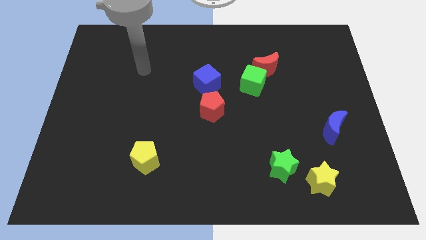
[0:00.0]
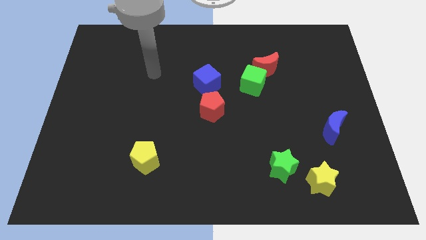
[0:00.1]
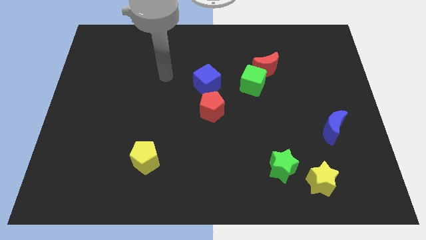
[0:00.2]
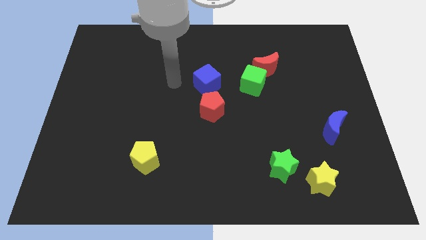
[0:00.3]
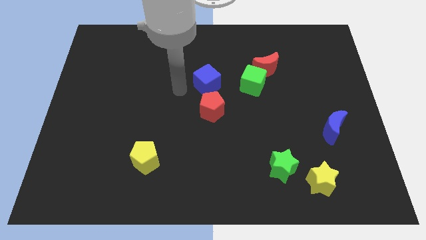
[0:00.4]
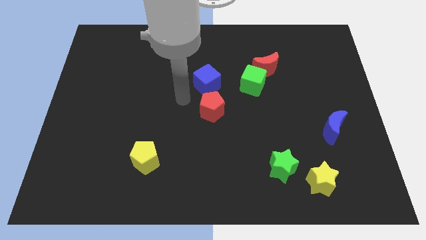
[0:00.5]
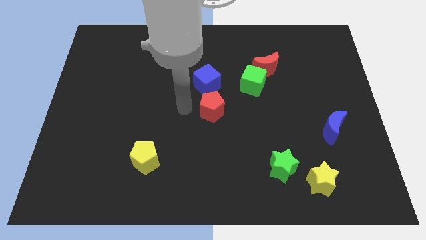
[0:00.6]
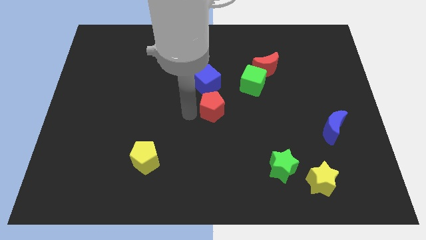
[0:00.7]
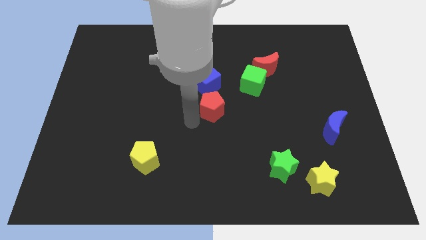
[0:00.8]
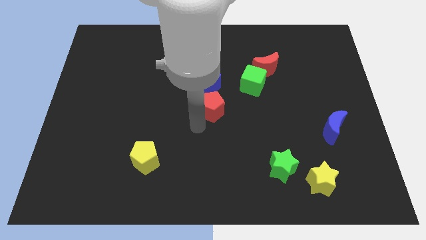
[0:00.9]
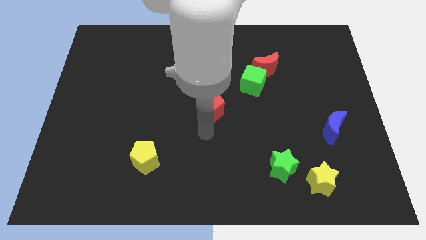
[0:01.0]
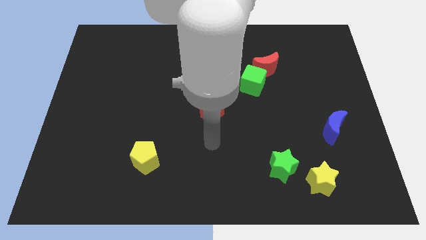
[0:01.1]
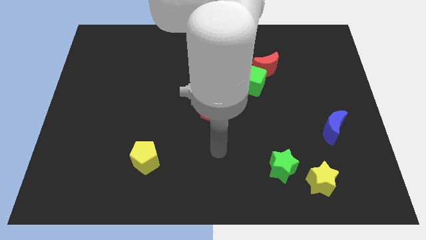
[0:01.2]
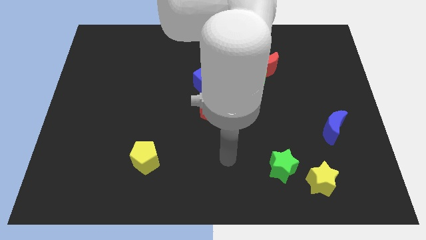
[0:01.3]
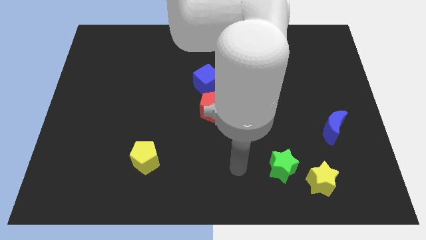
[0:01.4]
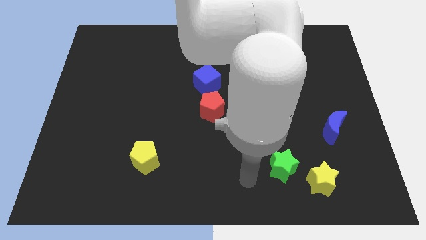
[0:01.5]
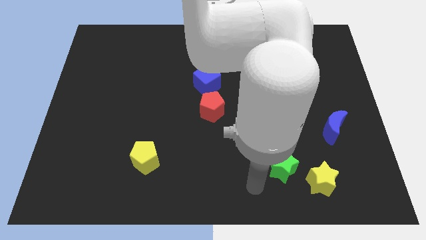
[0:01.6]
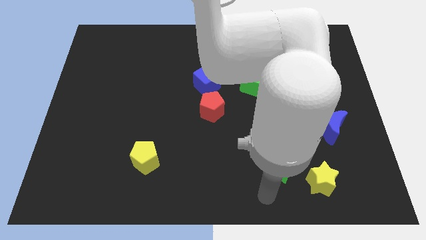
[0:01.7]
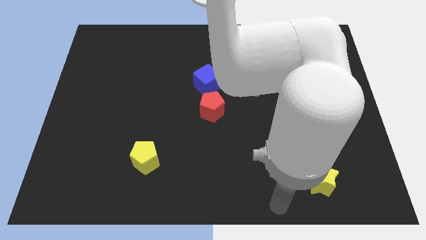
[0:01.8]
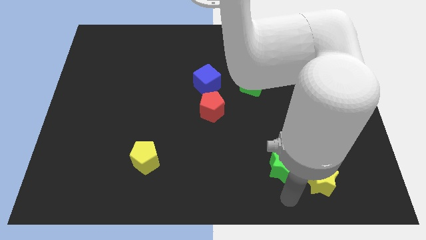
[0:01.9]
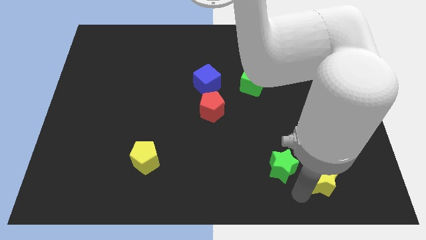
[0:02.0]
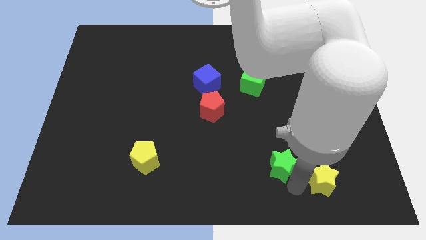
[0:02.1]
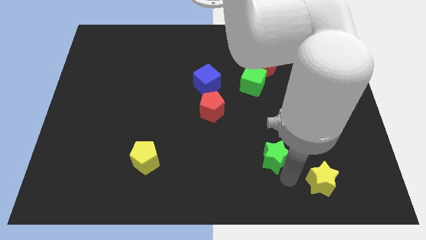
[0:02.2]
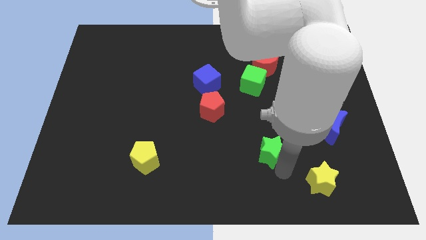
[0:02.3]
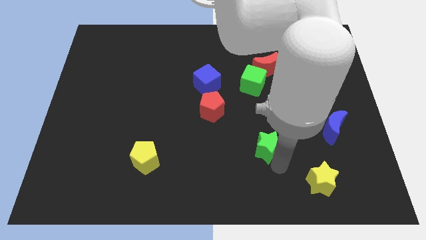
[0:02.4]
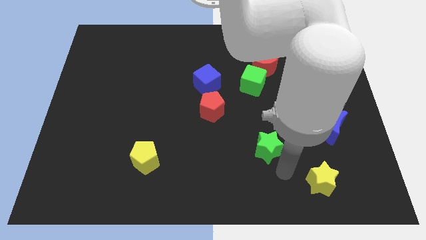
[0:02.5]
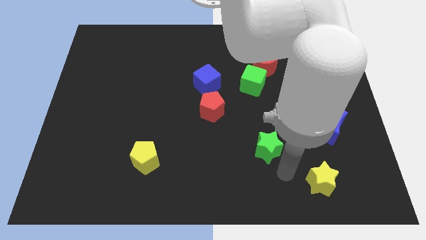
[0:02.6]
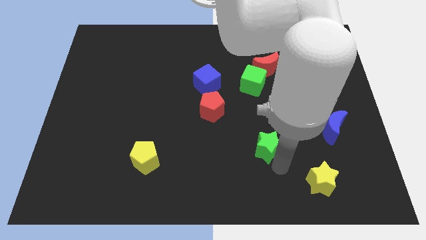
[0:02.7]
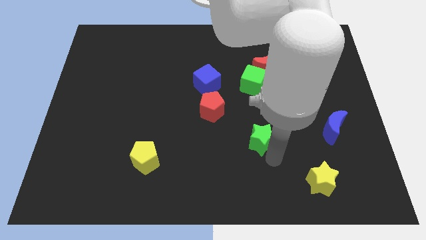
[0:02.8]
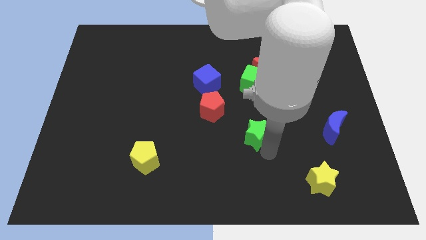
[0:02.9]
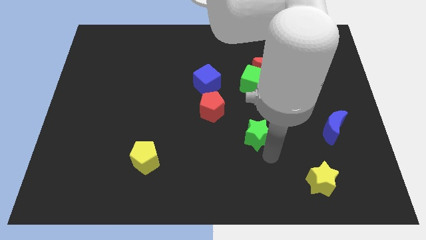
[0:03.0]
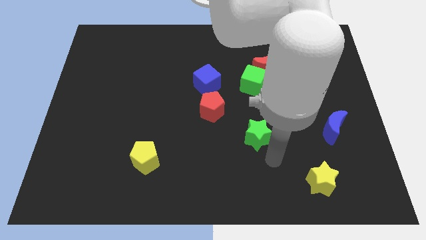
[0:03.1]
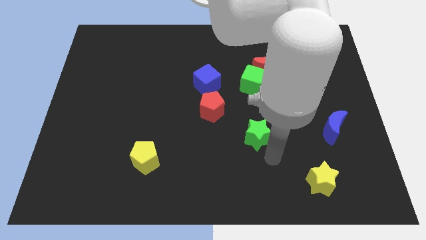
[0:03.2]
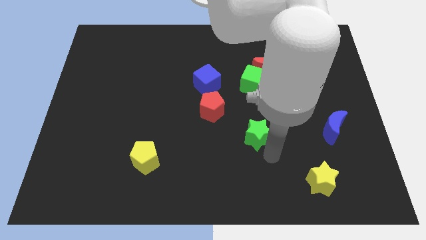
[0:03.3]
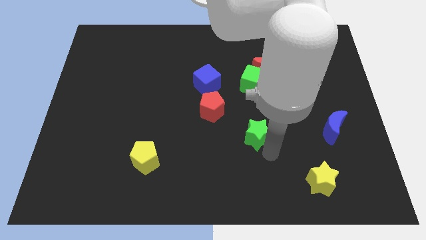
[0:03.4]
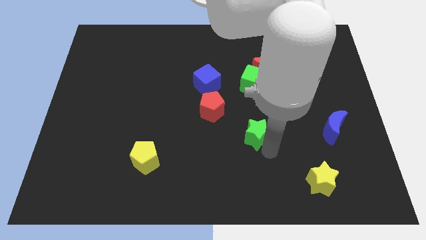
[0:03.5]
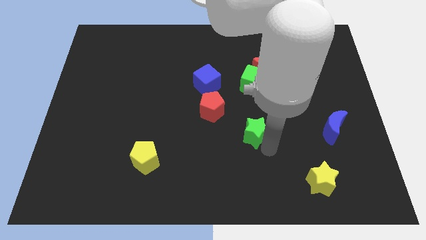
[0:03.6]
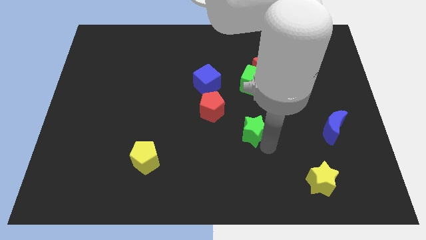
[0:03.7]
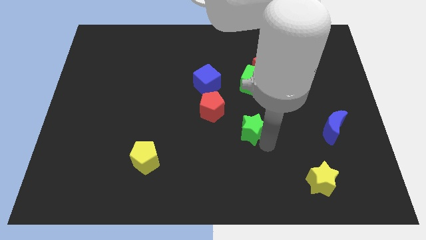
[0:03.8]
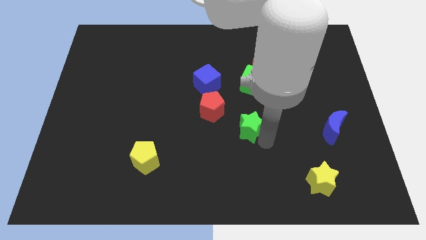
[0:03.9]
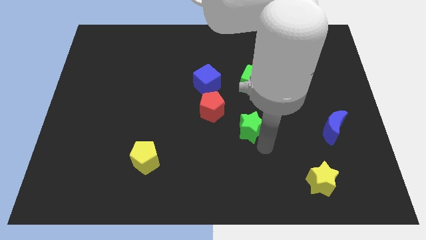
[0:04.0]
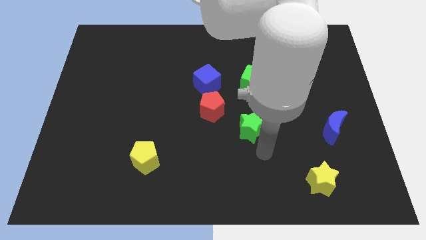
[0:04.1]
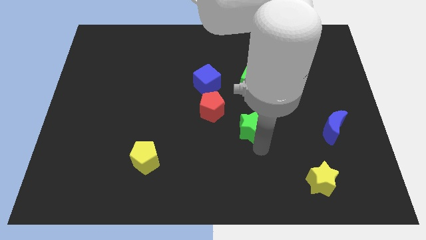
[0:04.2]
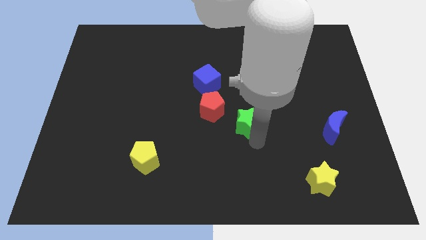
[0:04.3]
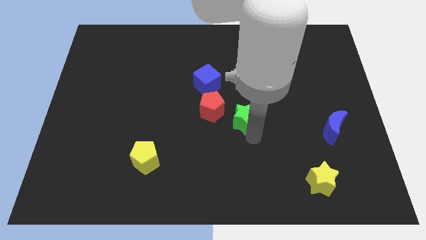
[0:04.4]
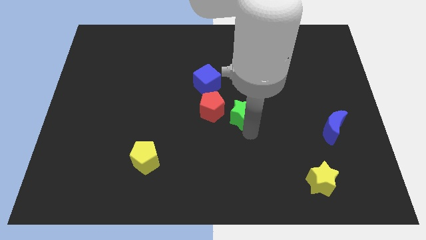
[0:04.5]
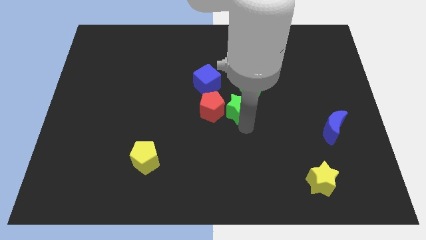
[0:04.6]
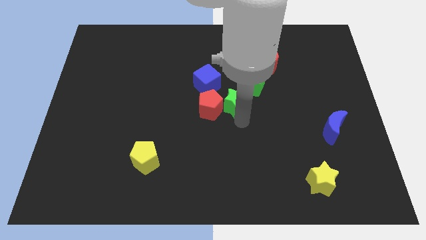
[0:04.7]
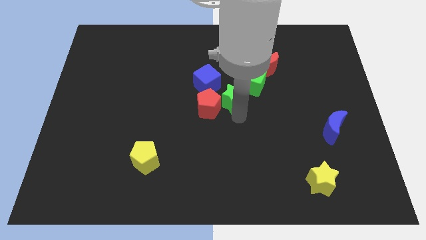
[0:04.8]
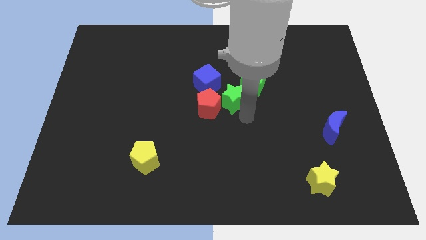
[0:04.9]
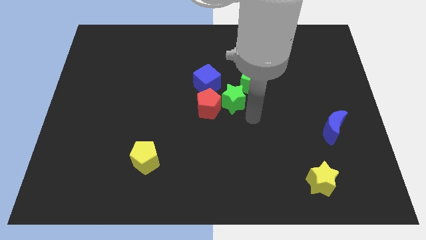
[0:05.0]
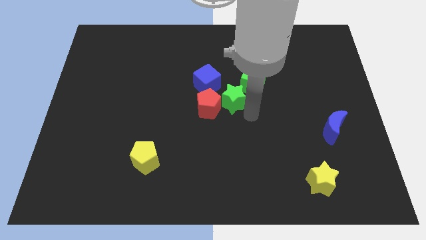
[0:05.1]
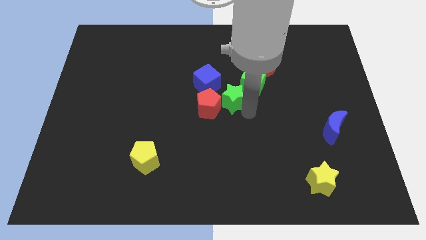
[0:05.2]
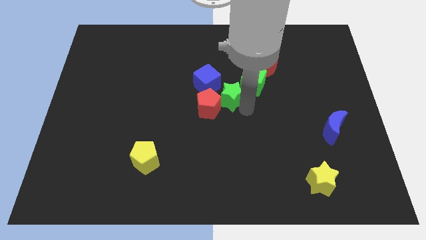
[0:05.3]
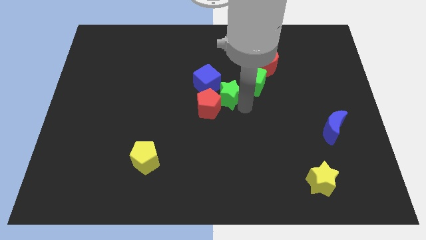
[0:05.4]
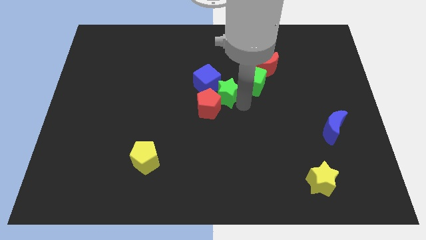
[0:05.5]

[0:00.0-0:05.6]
put the green star towards the blue cube

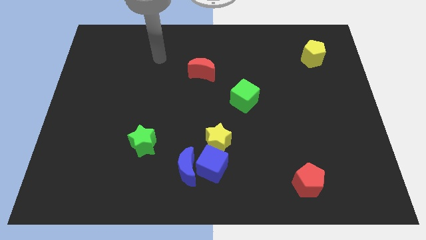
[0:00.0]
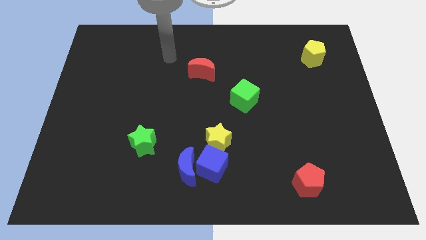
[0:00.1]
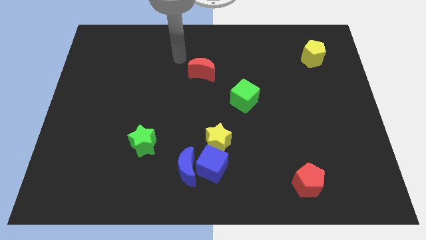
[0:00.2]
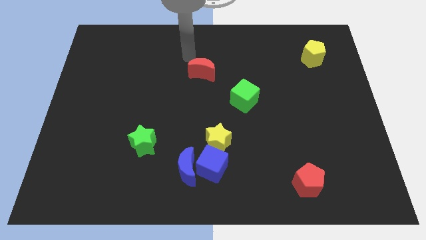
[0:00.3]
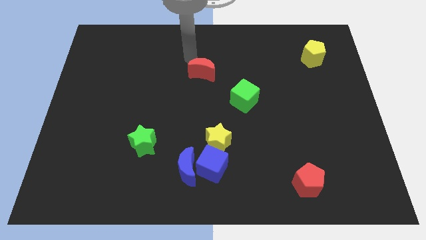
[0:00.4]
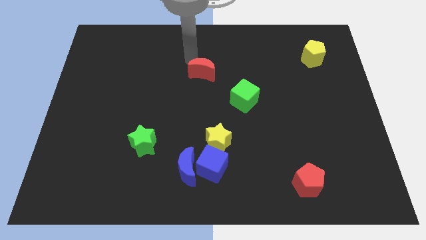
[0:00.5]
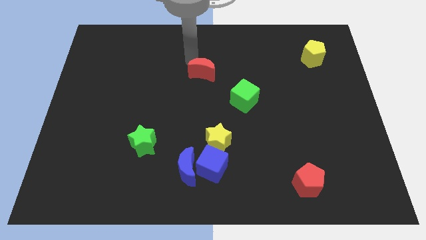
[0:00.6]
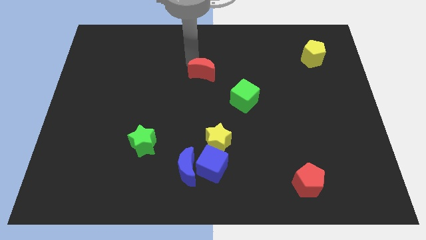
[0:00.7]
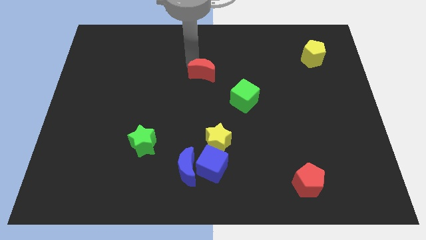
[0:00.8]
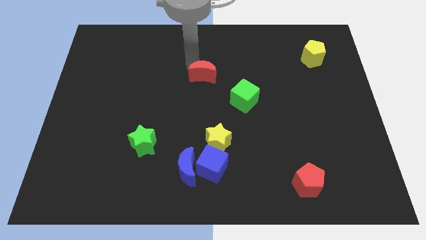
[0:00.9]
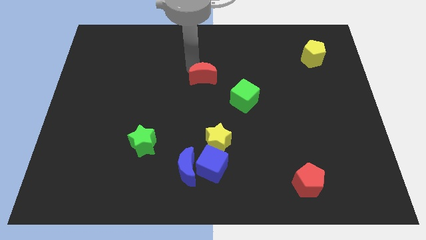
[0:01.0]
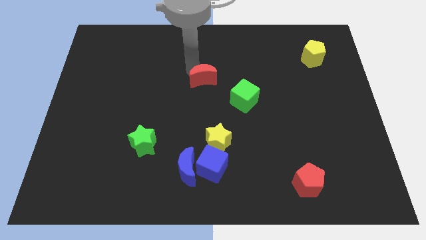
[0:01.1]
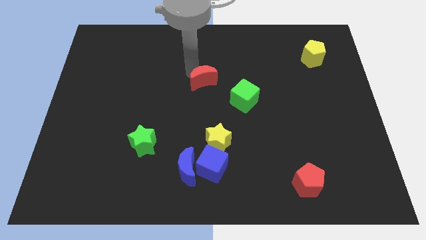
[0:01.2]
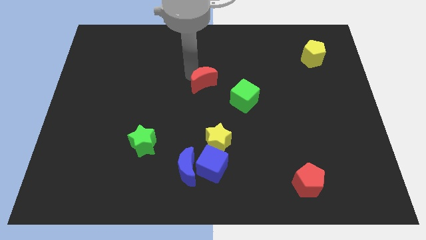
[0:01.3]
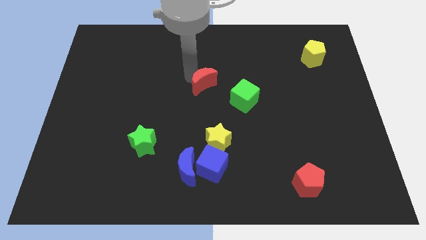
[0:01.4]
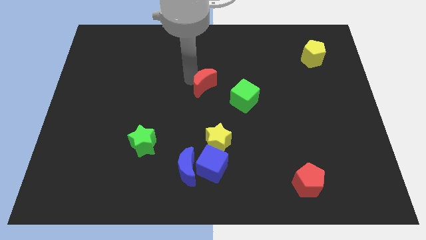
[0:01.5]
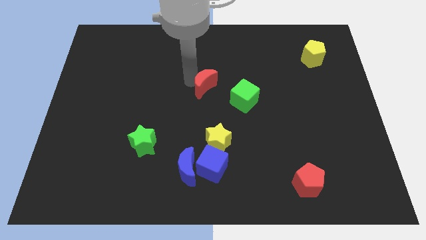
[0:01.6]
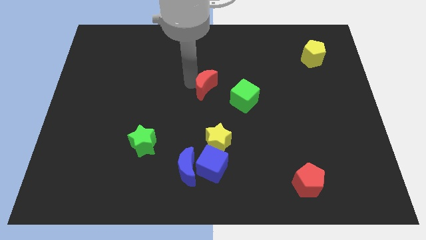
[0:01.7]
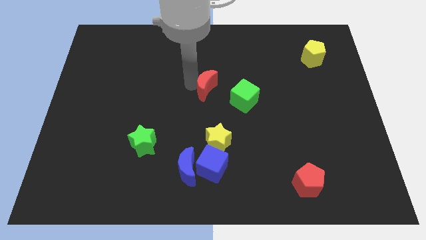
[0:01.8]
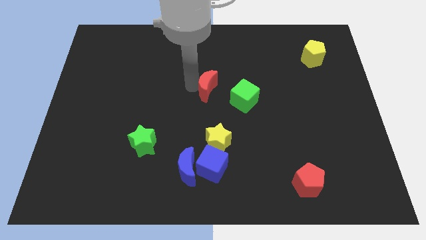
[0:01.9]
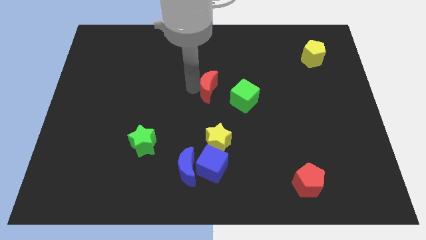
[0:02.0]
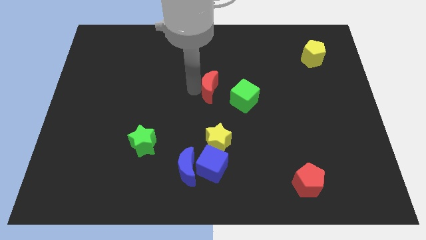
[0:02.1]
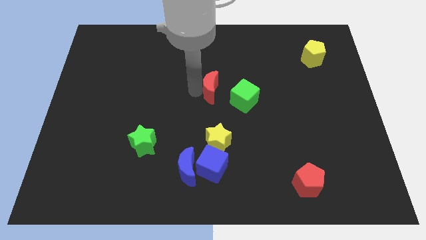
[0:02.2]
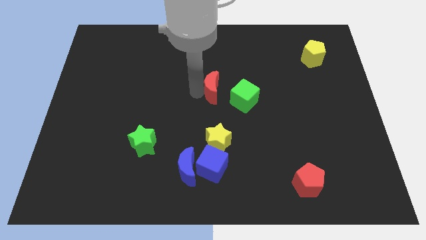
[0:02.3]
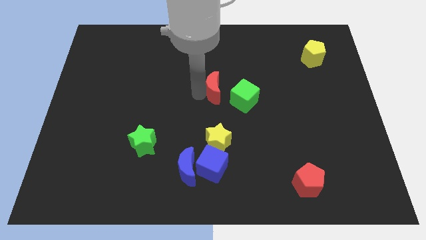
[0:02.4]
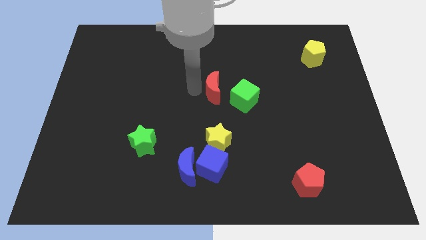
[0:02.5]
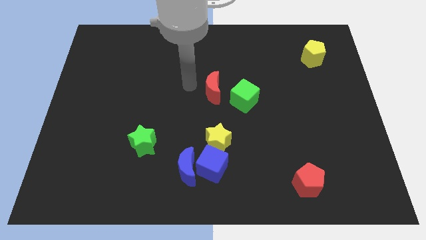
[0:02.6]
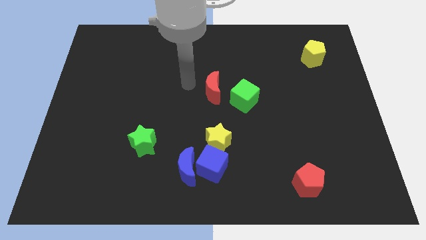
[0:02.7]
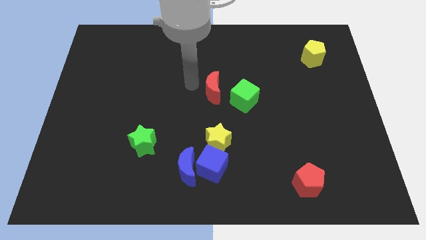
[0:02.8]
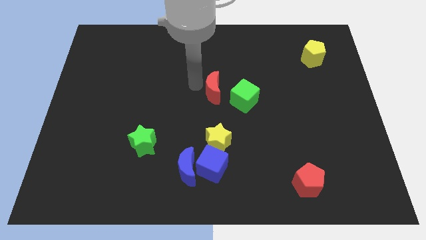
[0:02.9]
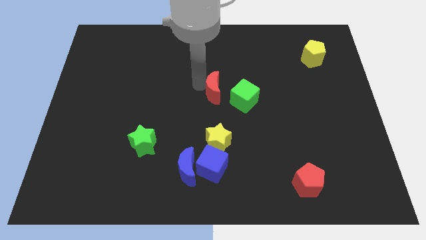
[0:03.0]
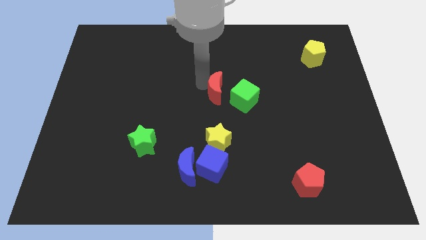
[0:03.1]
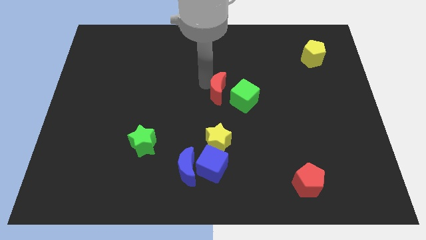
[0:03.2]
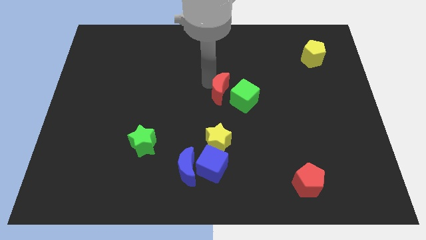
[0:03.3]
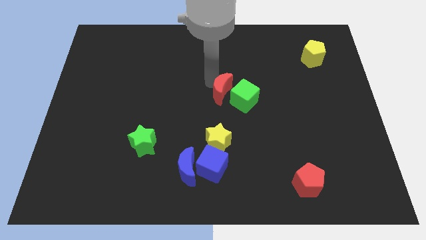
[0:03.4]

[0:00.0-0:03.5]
put the red moon to the green cube
